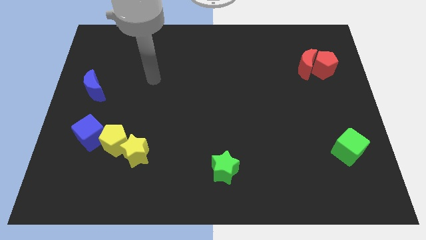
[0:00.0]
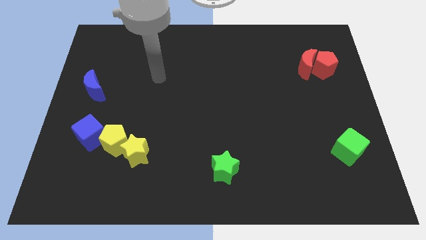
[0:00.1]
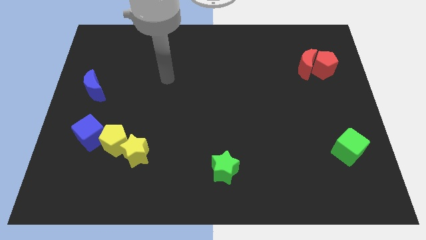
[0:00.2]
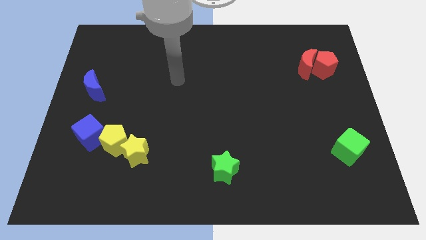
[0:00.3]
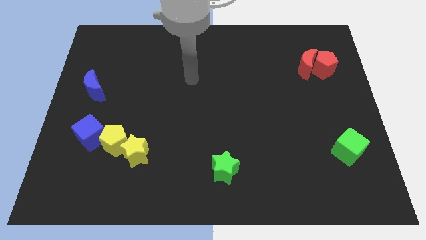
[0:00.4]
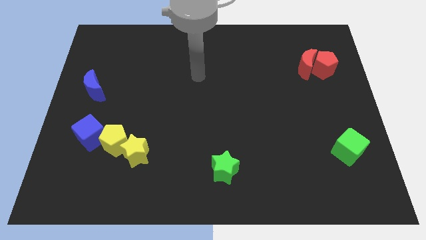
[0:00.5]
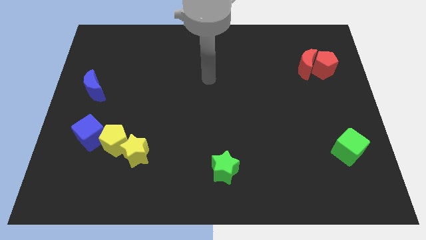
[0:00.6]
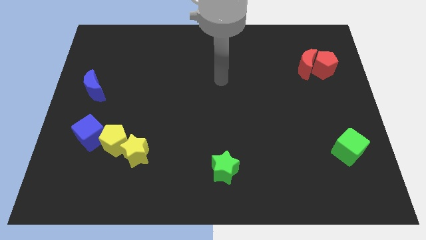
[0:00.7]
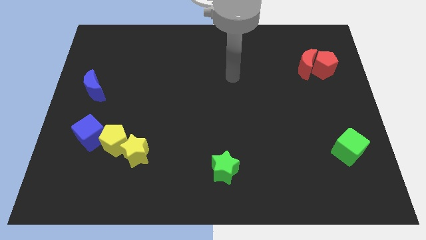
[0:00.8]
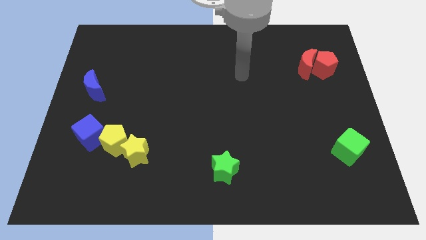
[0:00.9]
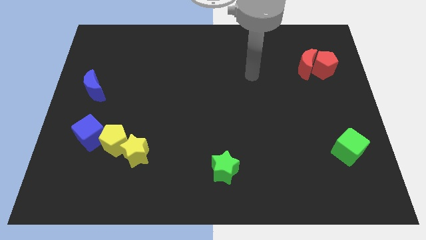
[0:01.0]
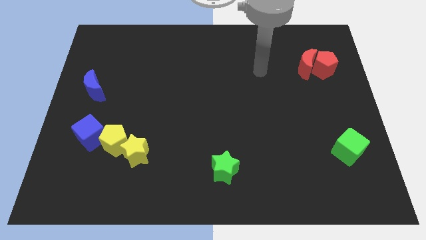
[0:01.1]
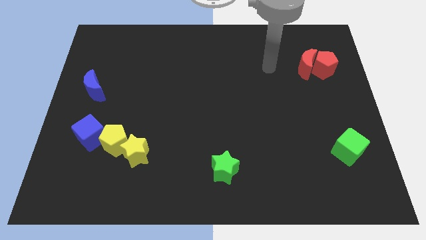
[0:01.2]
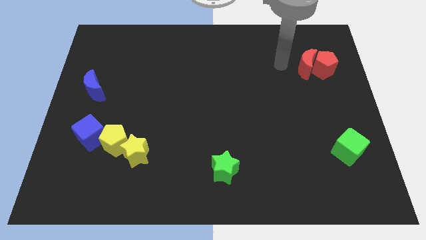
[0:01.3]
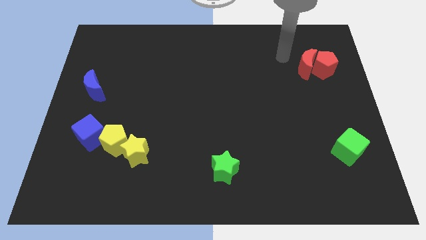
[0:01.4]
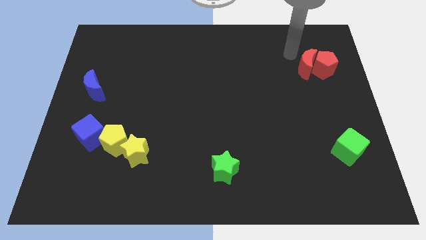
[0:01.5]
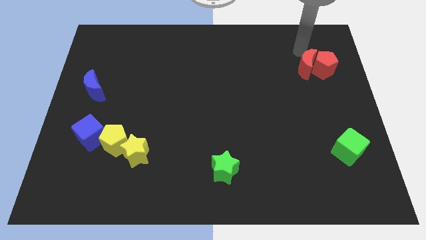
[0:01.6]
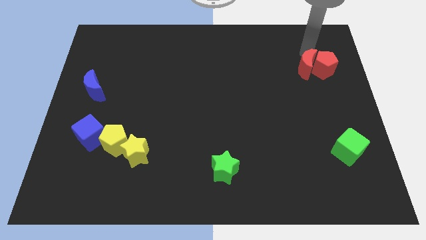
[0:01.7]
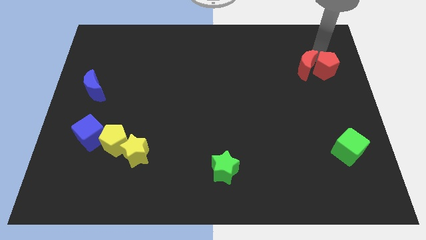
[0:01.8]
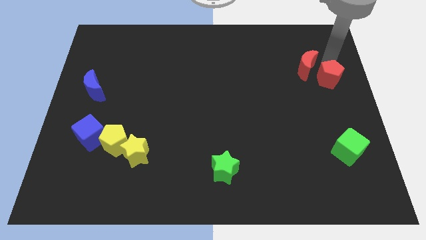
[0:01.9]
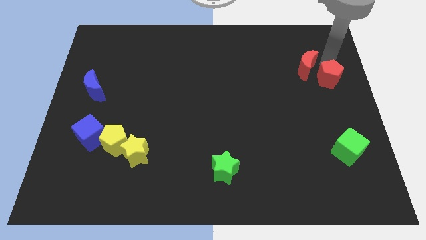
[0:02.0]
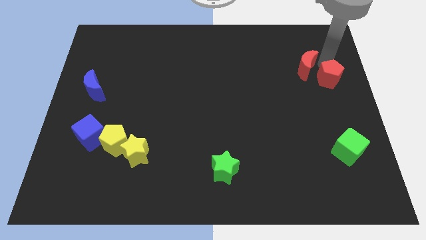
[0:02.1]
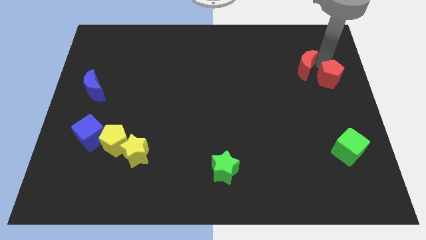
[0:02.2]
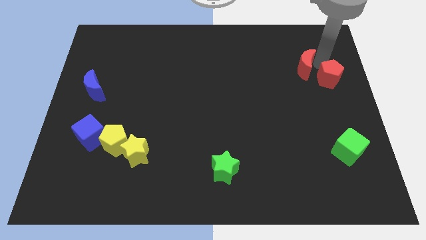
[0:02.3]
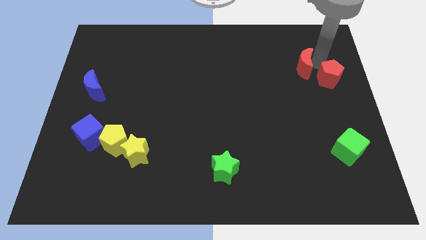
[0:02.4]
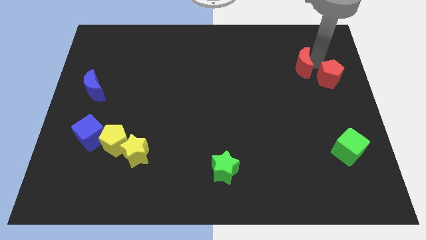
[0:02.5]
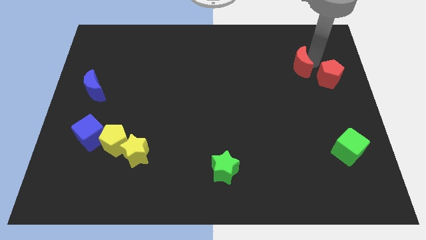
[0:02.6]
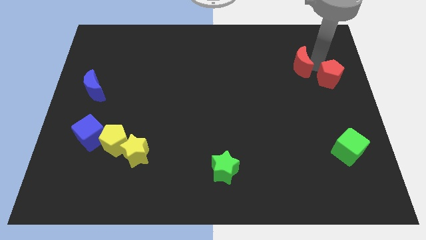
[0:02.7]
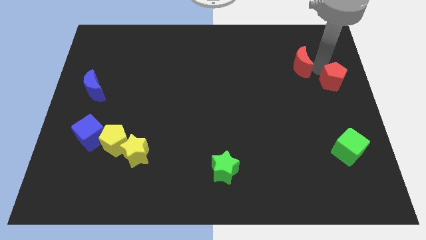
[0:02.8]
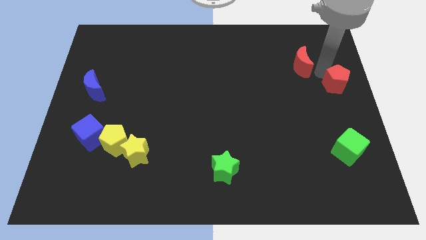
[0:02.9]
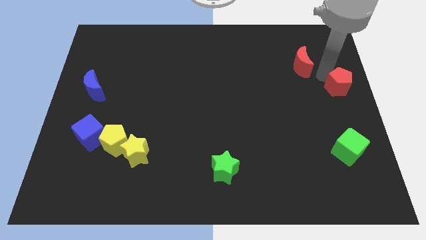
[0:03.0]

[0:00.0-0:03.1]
separate the red moon from the red pentagon

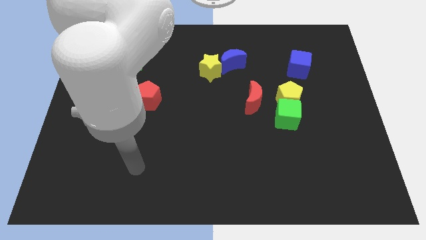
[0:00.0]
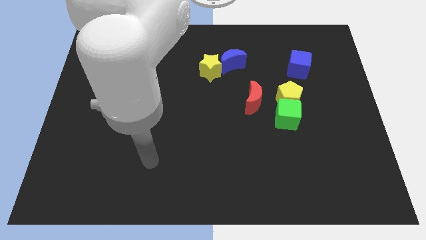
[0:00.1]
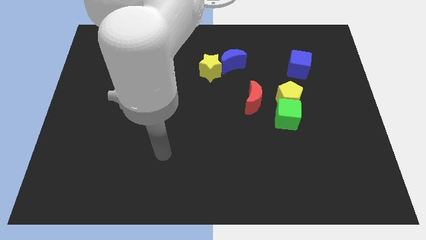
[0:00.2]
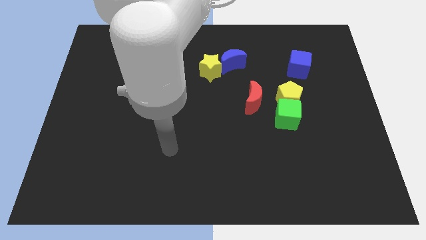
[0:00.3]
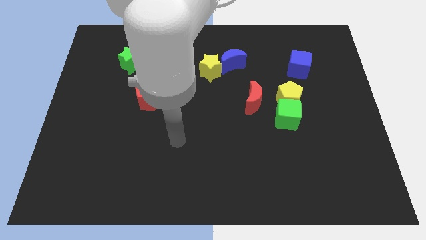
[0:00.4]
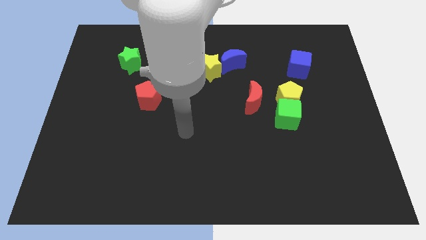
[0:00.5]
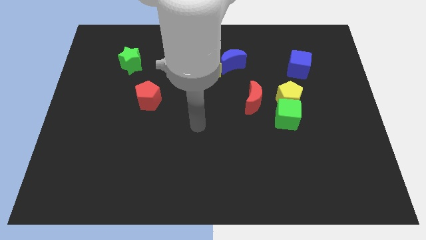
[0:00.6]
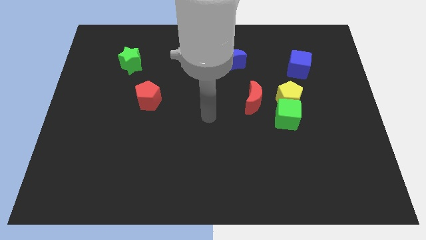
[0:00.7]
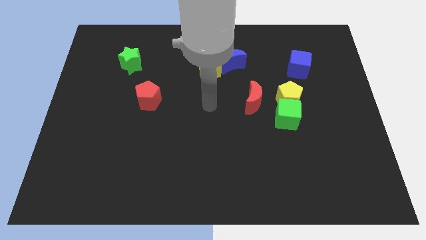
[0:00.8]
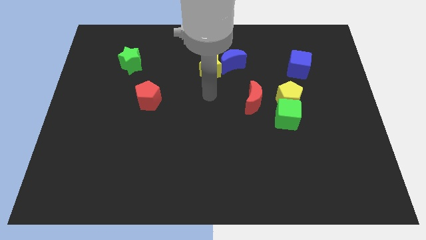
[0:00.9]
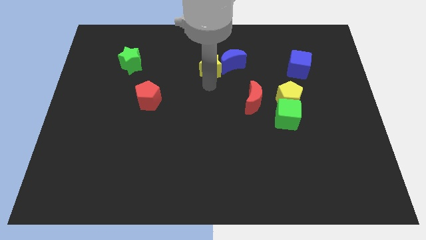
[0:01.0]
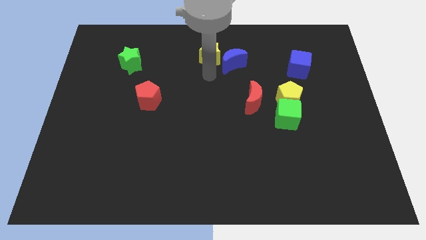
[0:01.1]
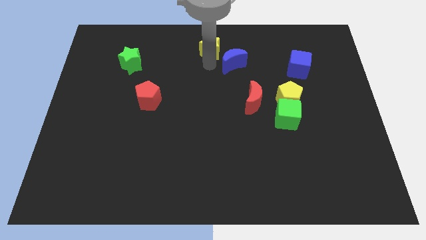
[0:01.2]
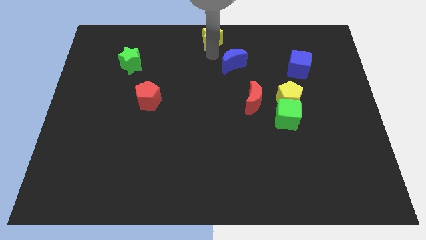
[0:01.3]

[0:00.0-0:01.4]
separate the blue moon from the yellow star

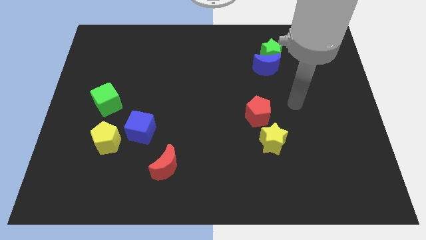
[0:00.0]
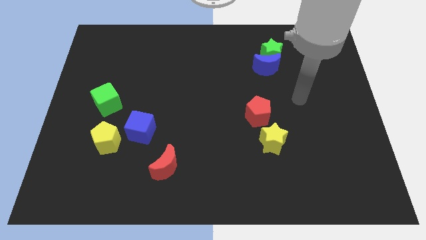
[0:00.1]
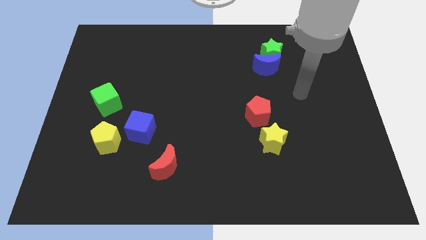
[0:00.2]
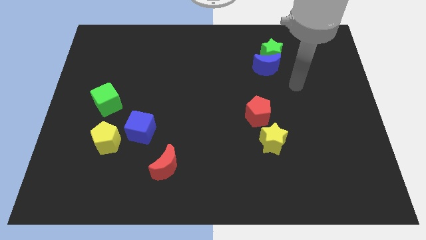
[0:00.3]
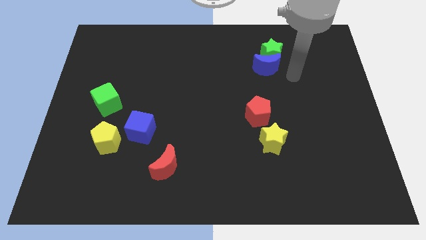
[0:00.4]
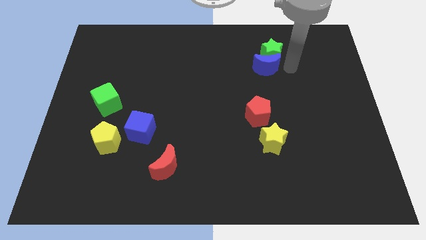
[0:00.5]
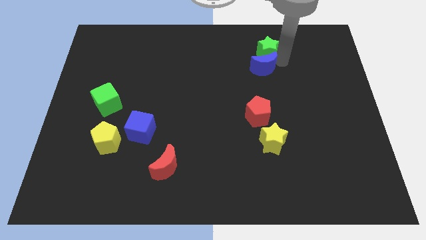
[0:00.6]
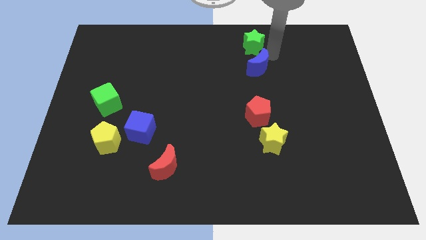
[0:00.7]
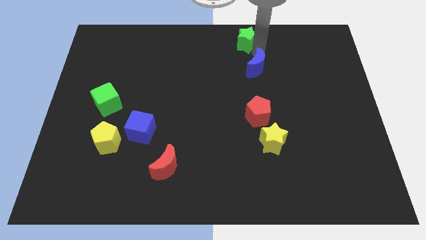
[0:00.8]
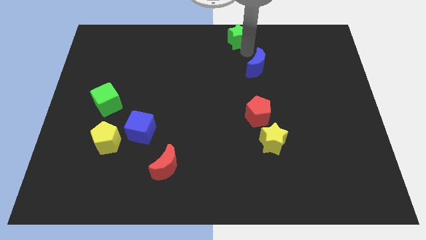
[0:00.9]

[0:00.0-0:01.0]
pull the blue moon apart from the green star

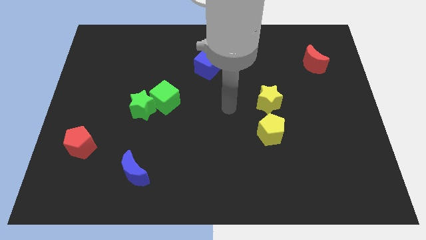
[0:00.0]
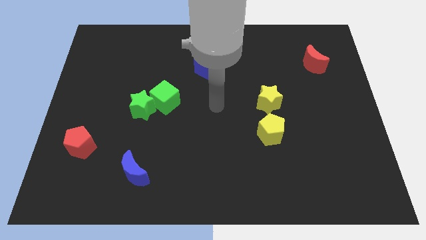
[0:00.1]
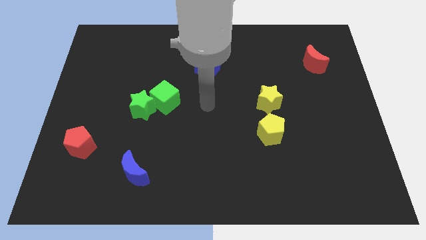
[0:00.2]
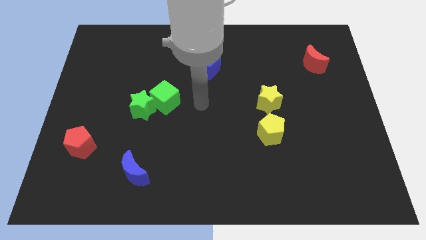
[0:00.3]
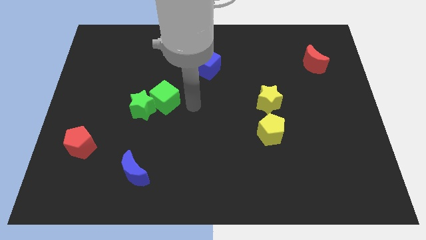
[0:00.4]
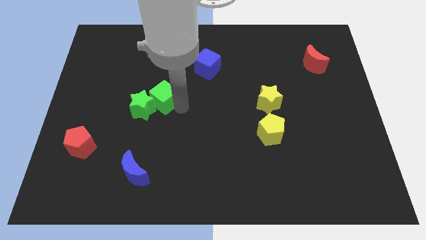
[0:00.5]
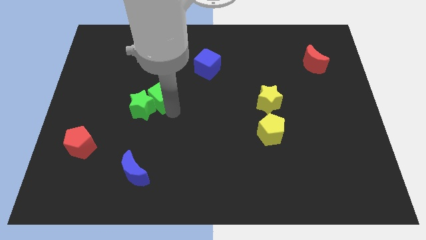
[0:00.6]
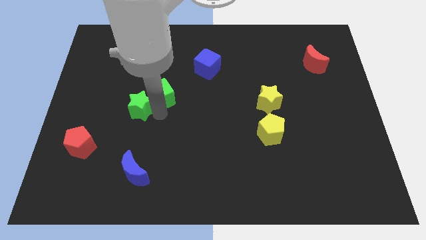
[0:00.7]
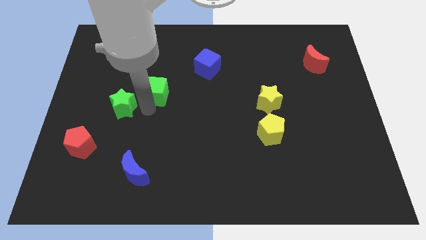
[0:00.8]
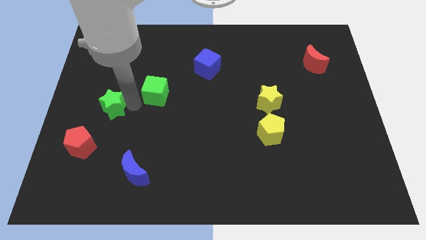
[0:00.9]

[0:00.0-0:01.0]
separate the green cube from the green star

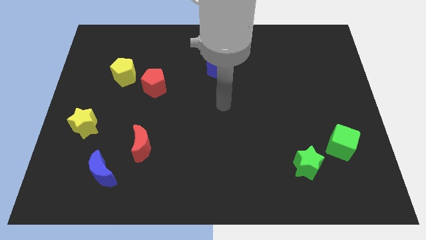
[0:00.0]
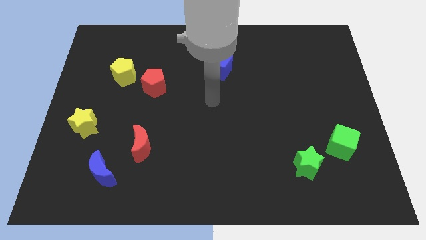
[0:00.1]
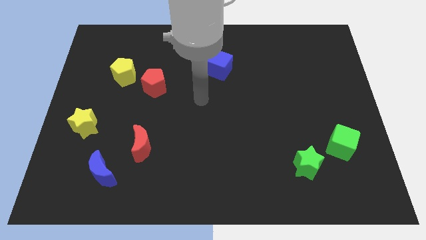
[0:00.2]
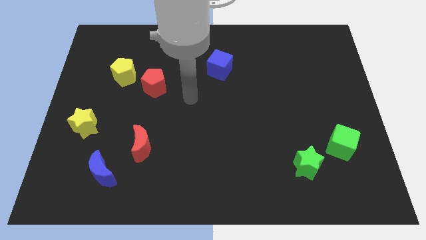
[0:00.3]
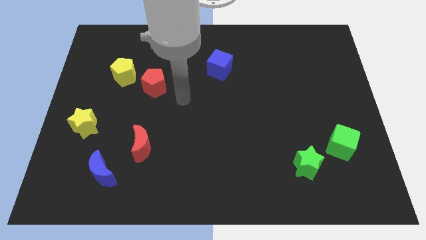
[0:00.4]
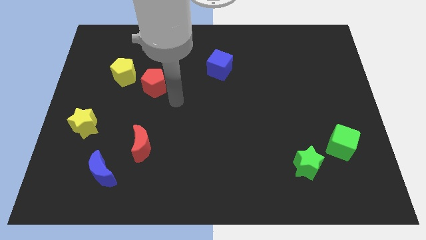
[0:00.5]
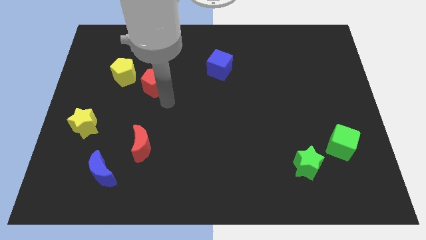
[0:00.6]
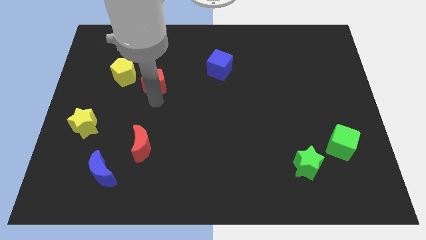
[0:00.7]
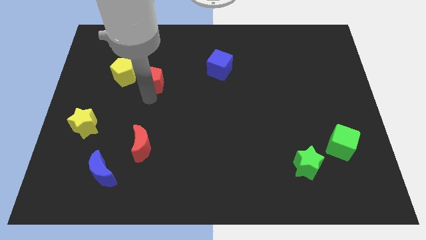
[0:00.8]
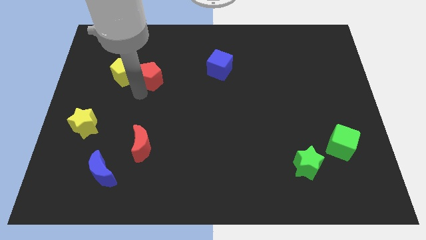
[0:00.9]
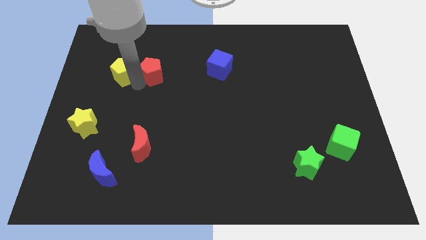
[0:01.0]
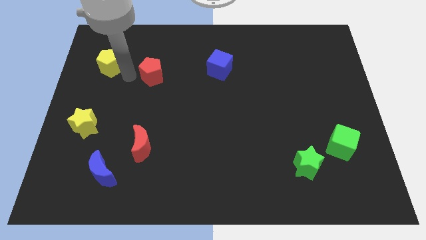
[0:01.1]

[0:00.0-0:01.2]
separate the red pentagon from the yellow pentagon

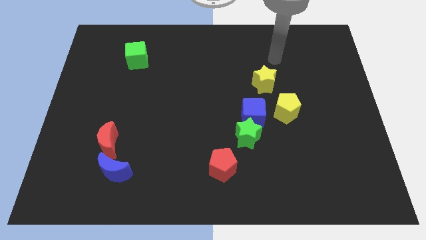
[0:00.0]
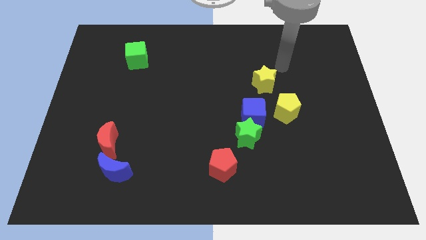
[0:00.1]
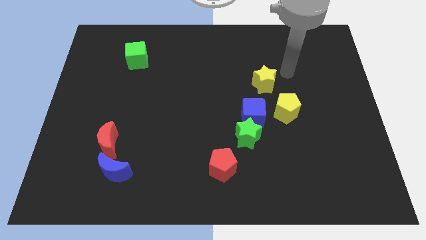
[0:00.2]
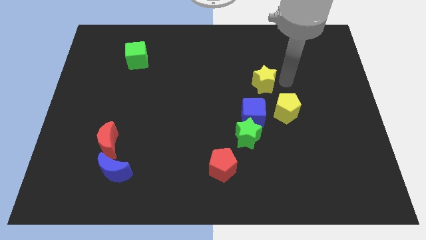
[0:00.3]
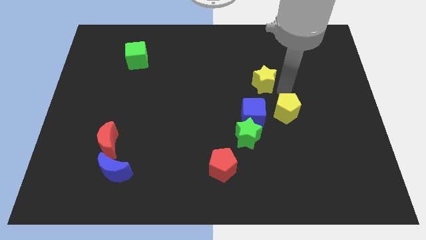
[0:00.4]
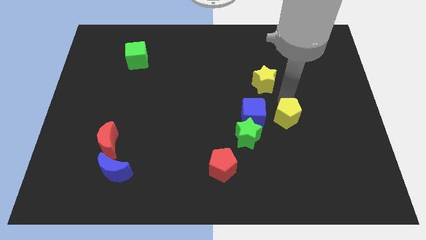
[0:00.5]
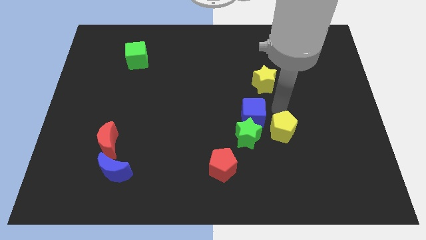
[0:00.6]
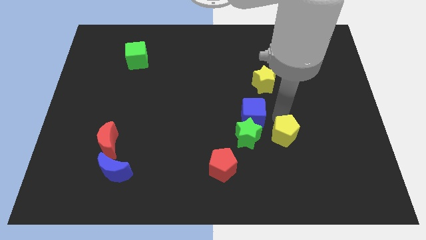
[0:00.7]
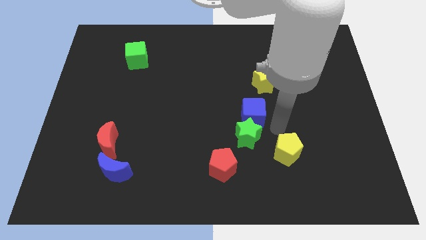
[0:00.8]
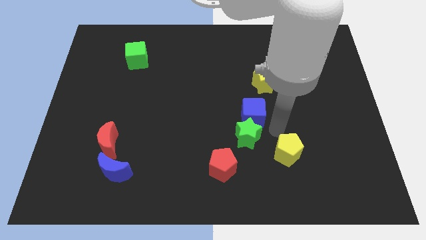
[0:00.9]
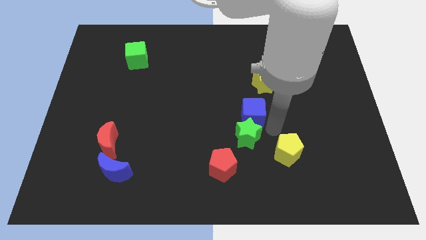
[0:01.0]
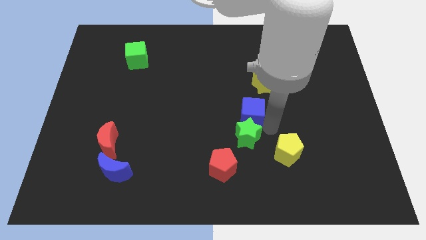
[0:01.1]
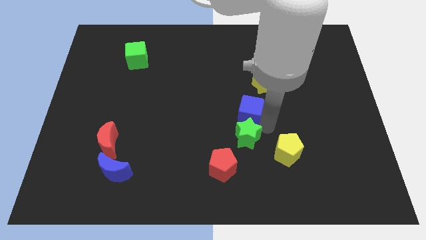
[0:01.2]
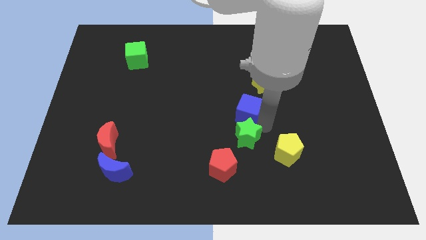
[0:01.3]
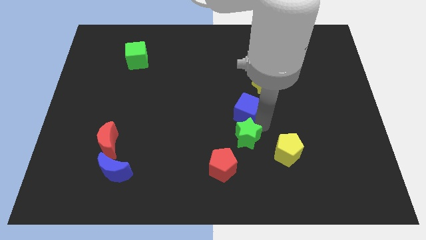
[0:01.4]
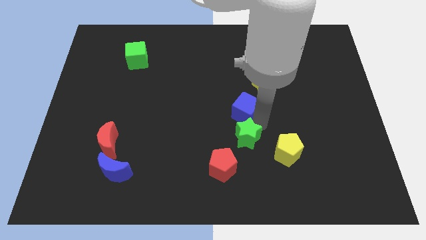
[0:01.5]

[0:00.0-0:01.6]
pull the blue cube apart from the green star and yellow pentagon
